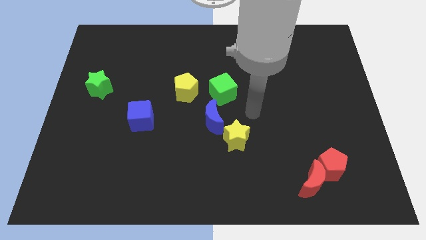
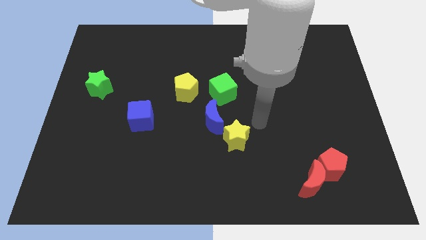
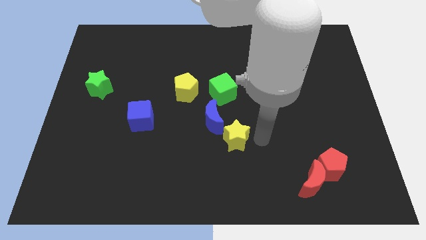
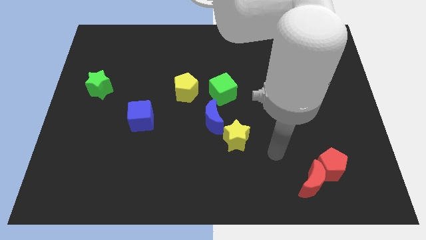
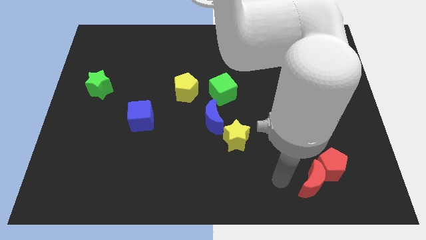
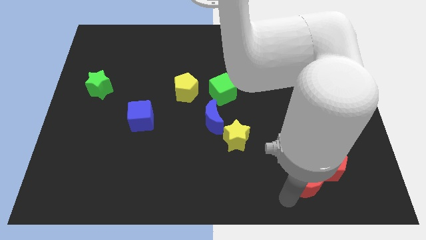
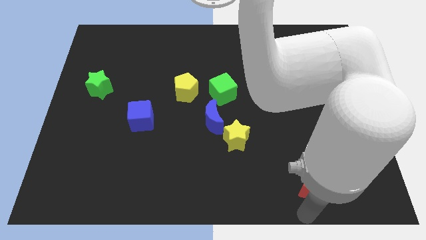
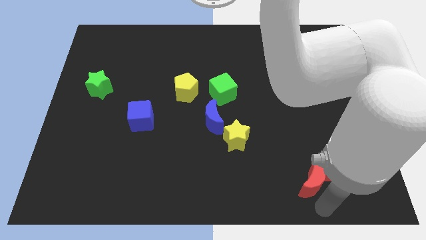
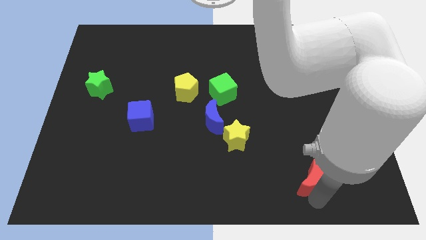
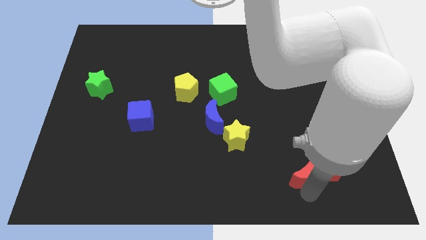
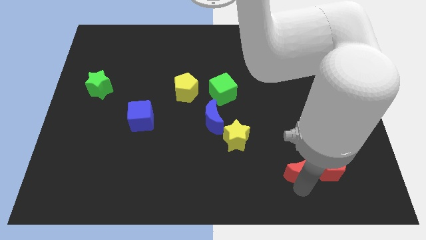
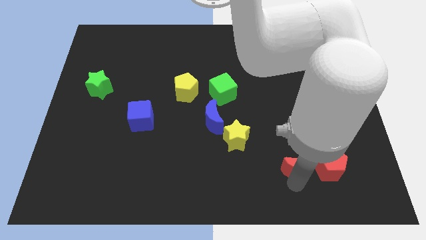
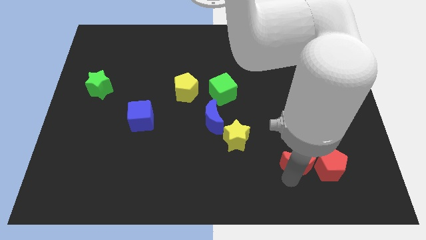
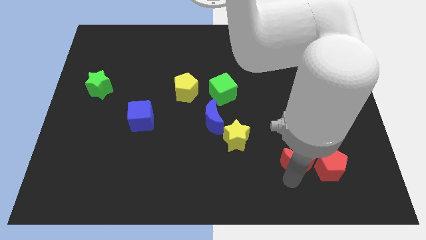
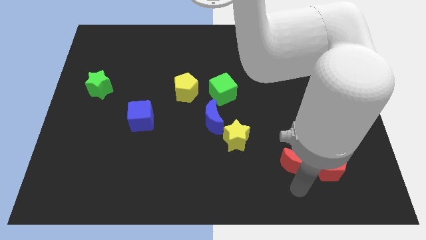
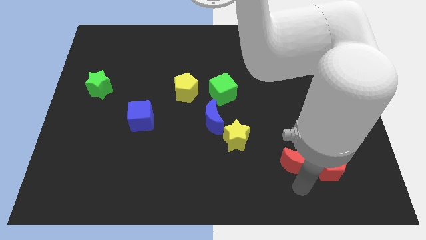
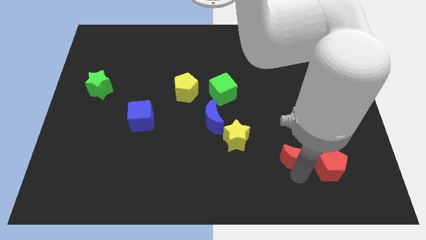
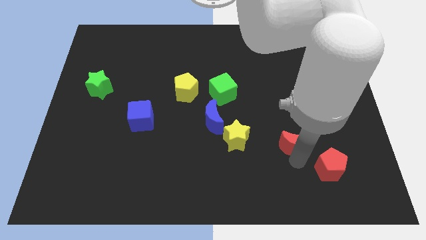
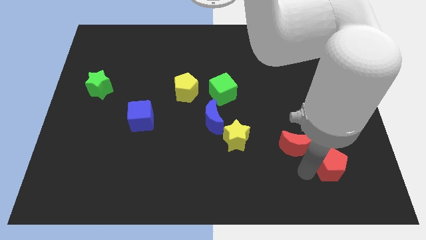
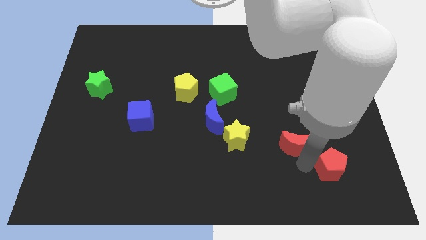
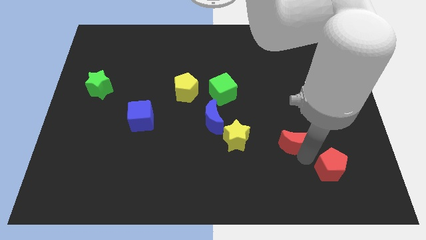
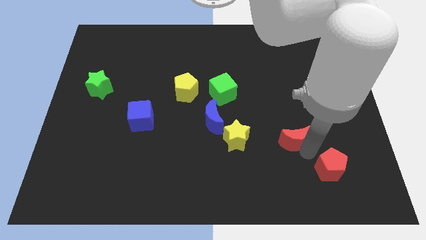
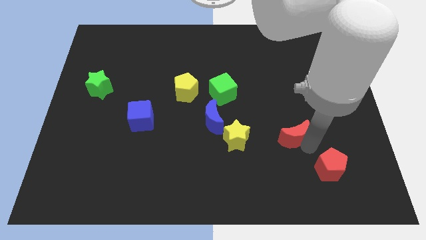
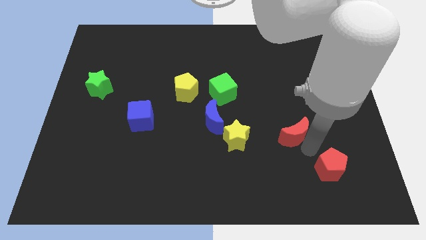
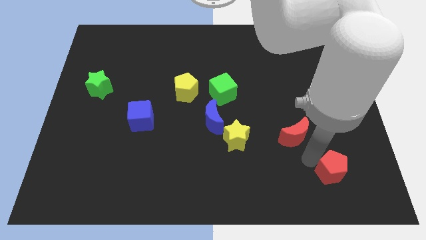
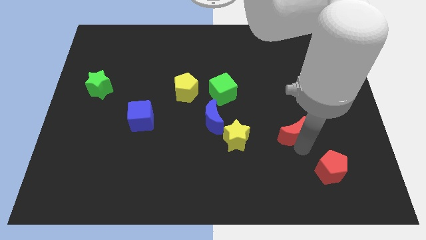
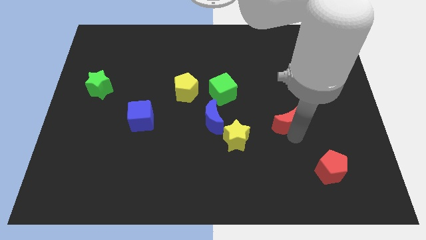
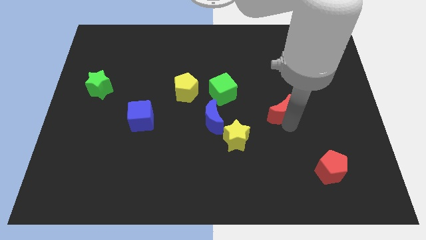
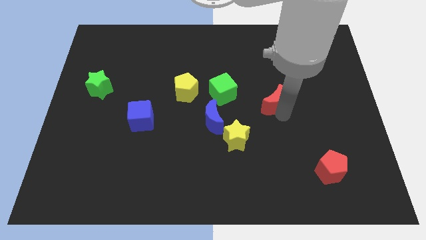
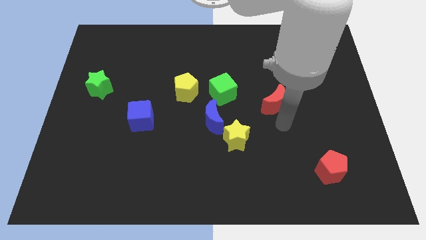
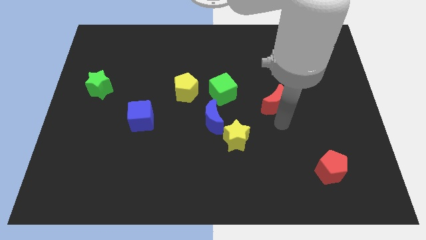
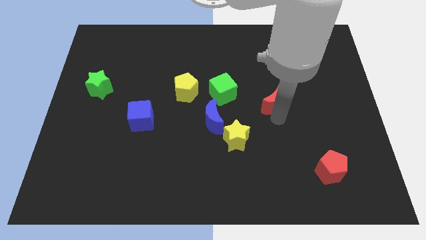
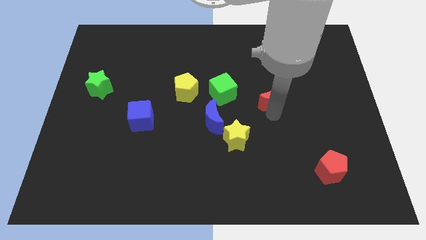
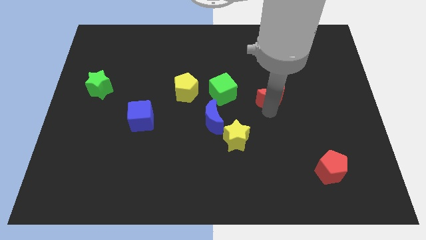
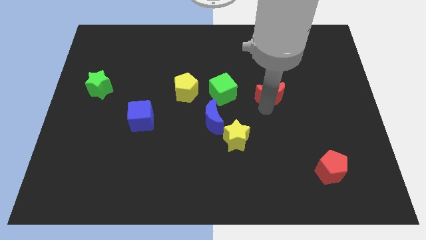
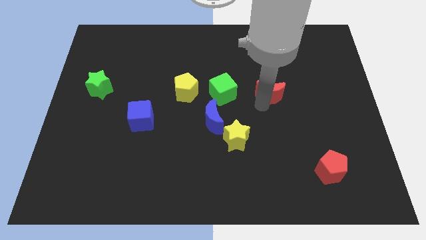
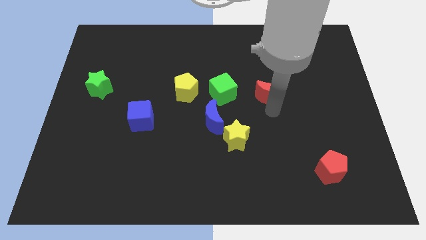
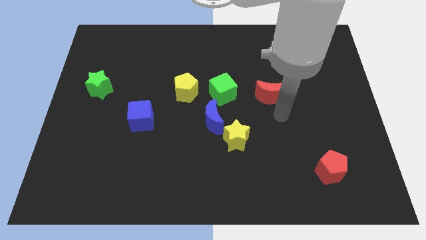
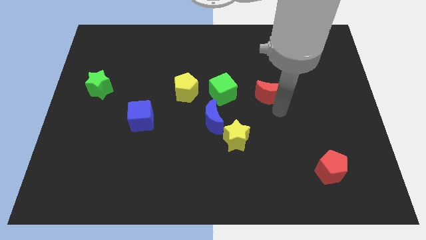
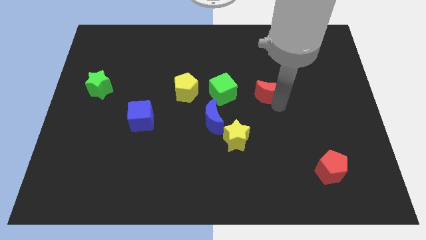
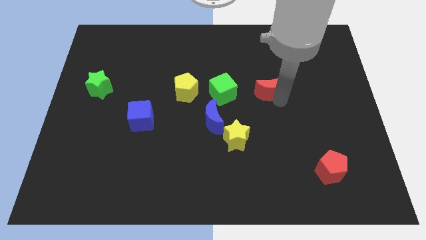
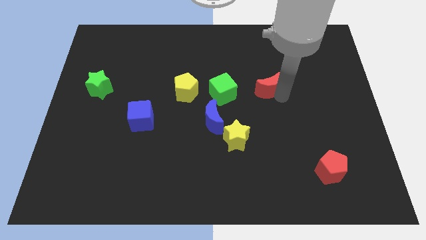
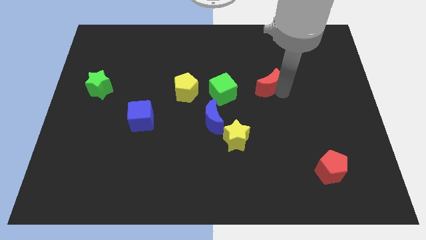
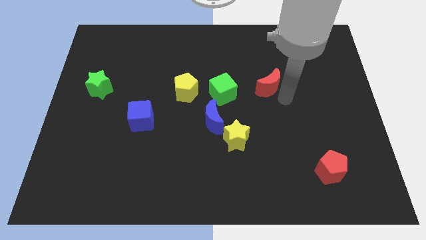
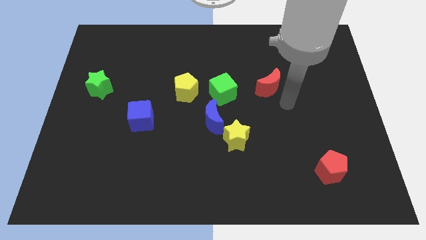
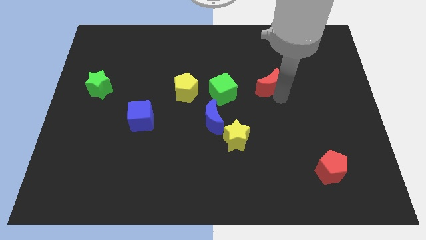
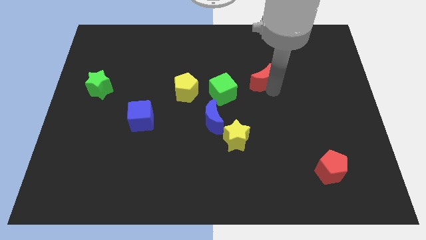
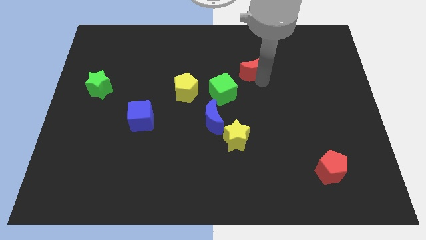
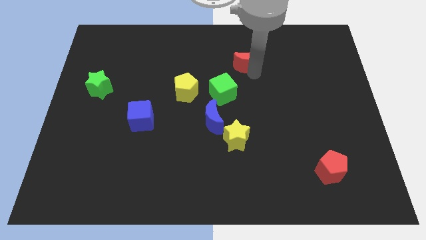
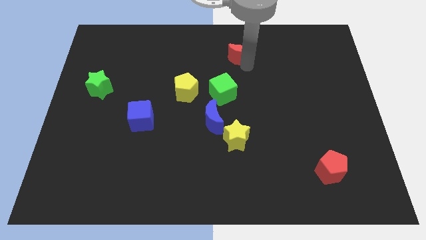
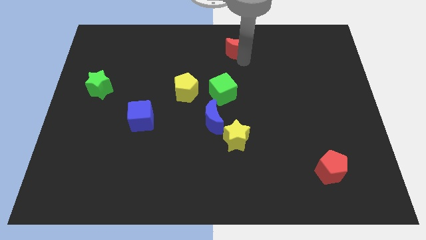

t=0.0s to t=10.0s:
slide the red moon to the top

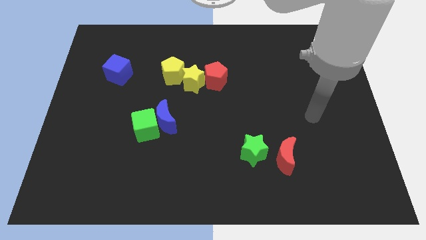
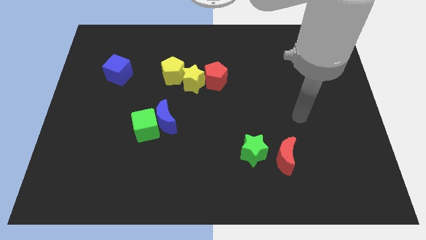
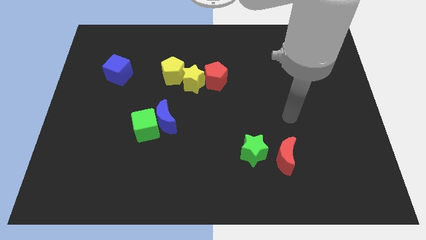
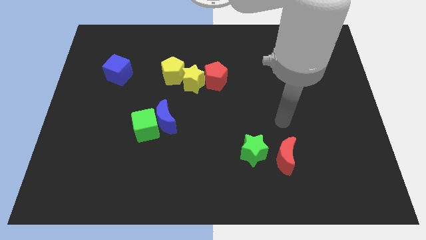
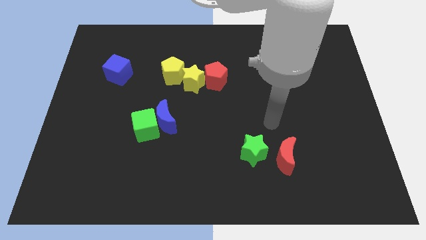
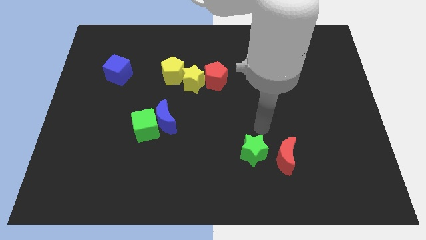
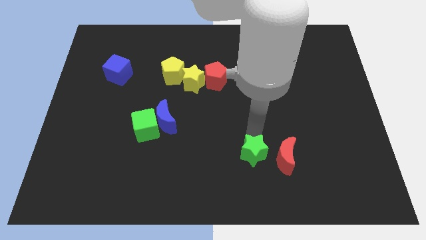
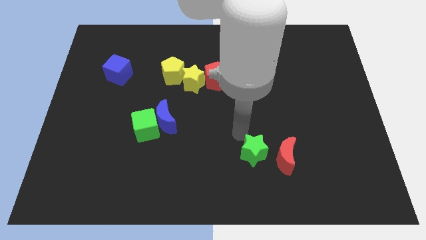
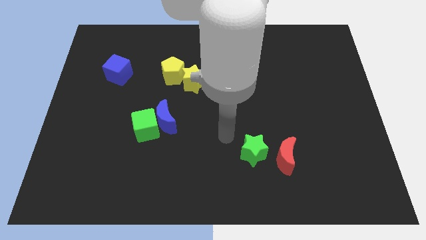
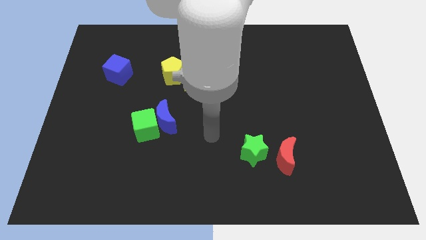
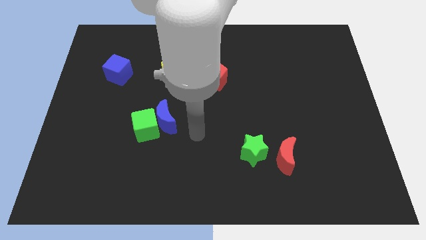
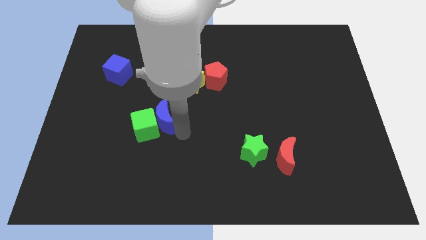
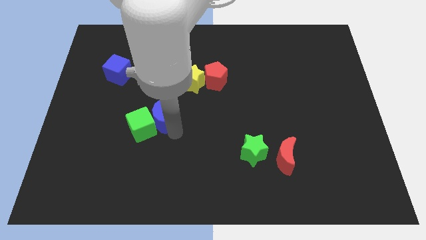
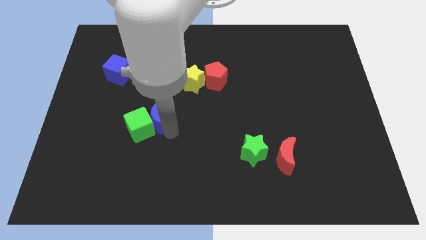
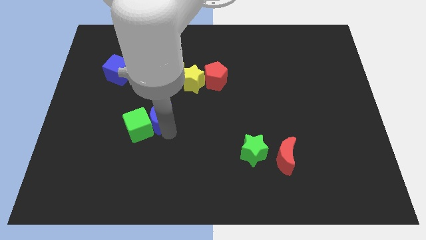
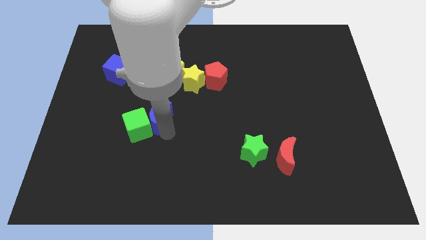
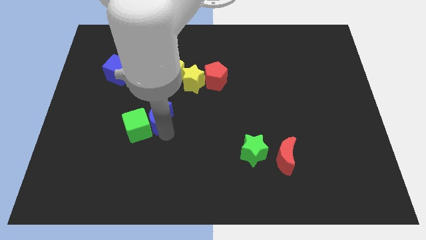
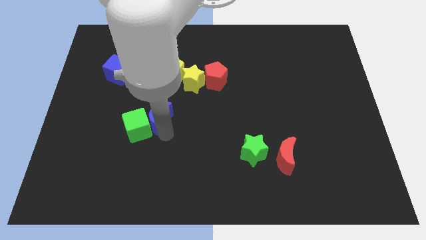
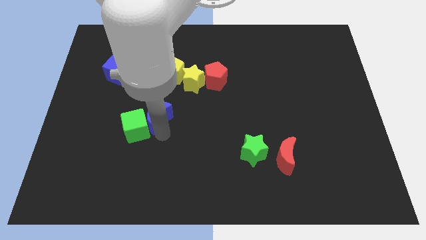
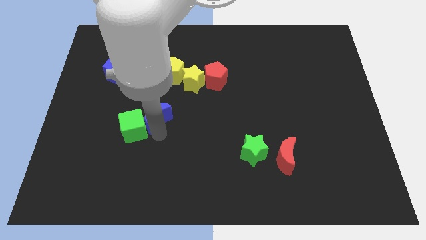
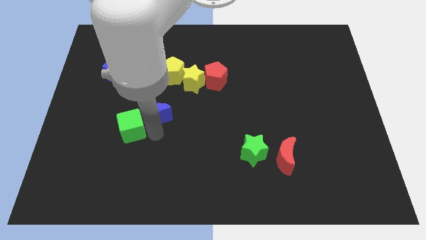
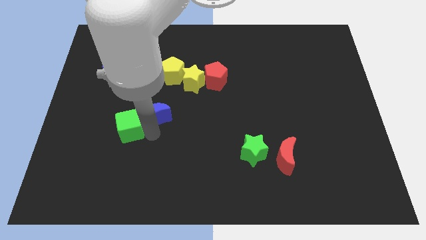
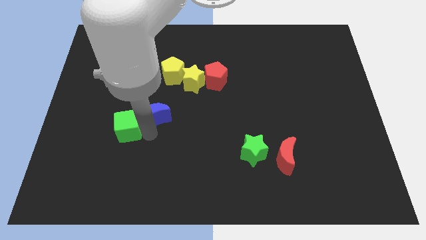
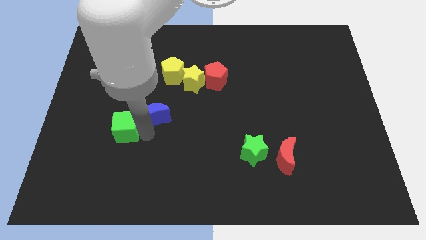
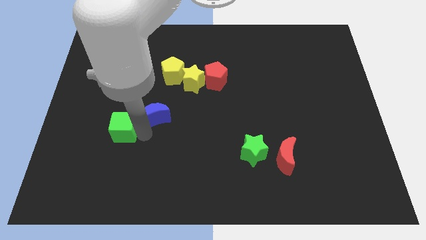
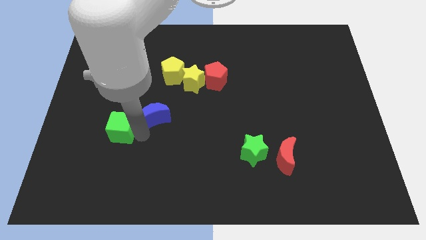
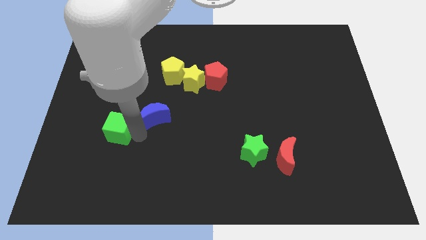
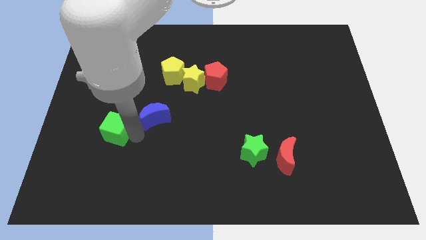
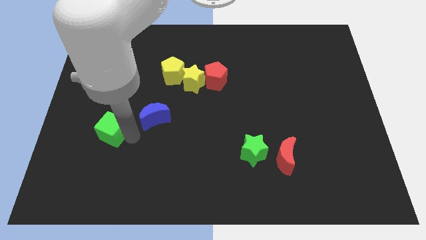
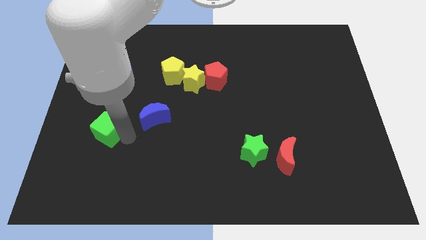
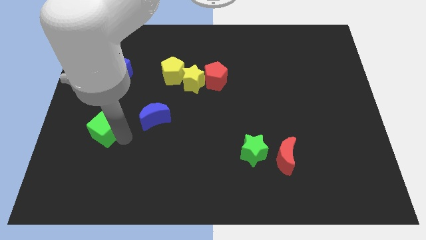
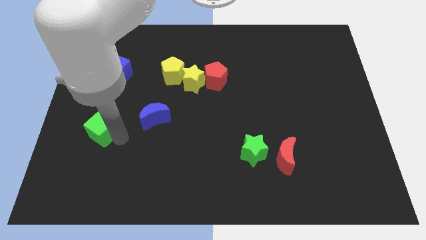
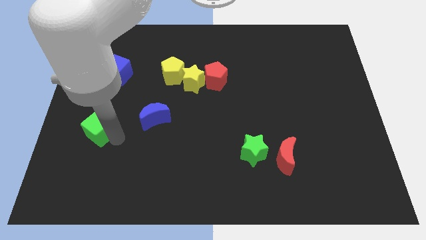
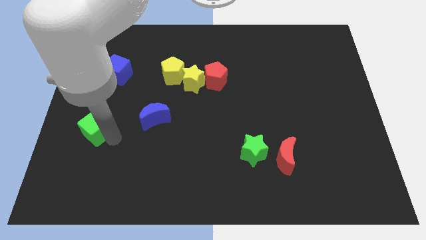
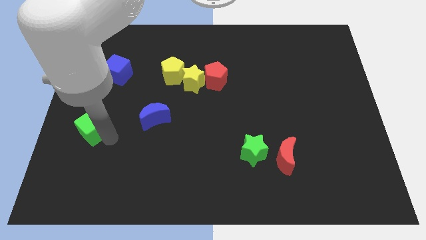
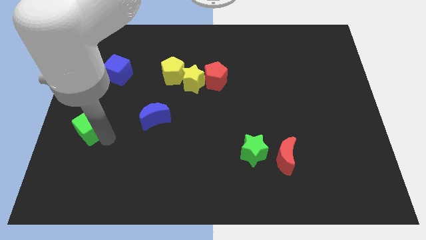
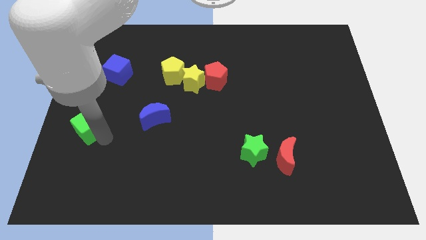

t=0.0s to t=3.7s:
move the green cube to the left side
